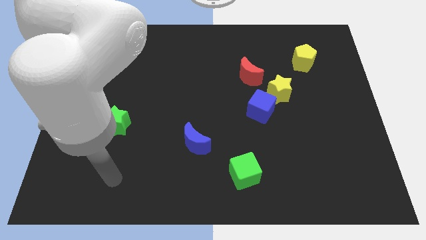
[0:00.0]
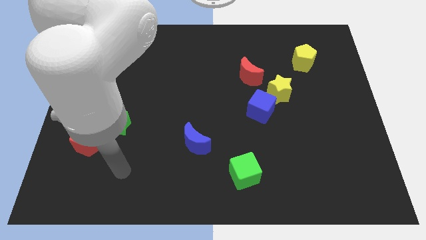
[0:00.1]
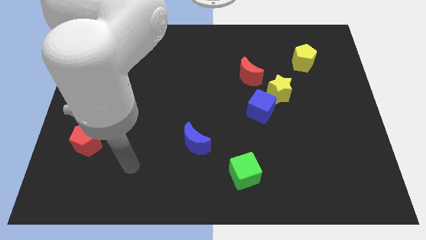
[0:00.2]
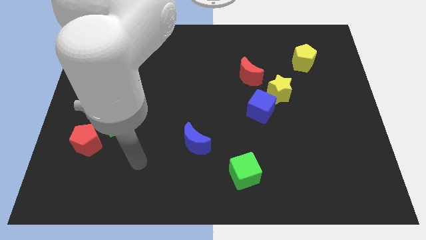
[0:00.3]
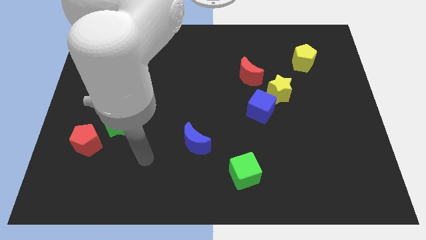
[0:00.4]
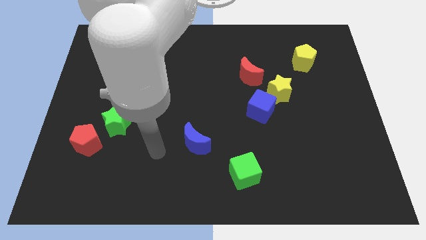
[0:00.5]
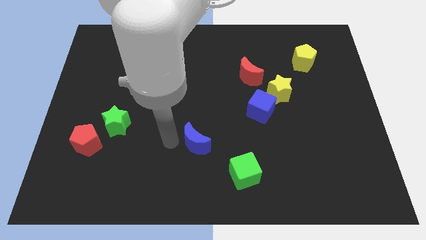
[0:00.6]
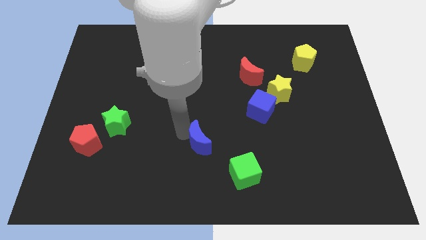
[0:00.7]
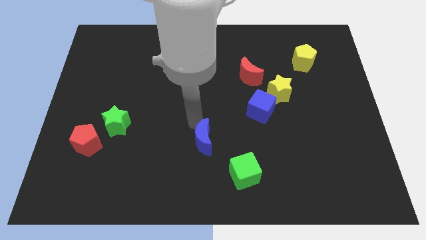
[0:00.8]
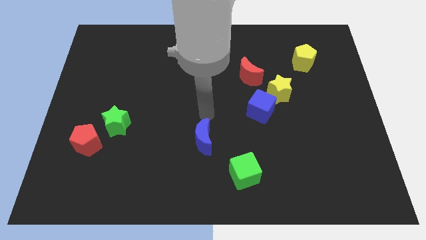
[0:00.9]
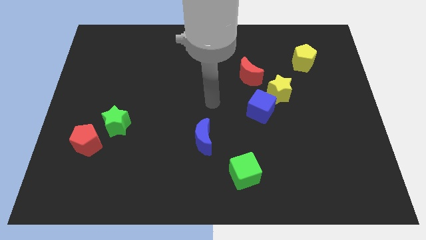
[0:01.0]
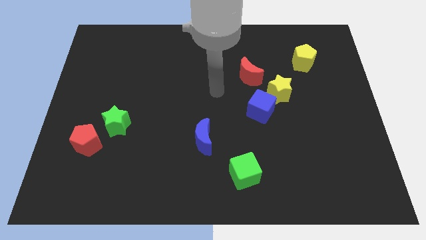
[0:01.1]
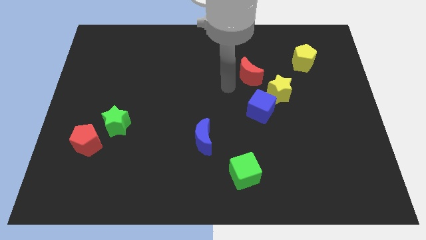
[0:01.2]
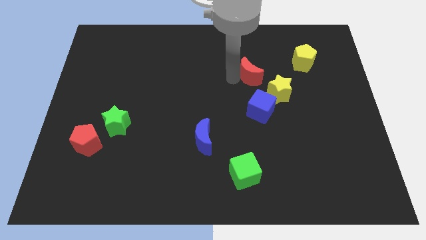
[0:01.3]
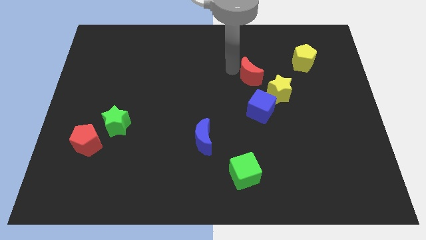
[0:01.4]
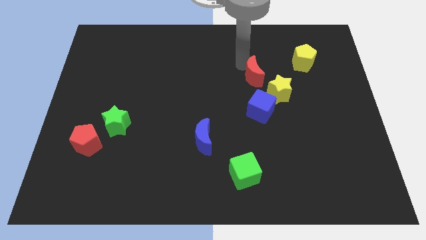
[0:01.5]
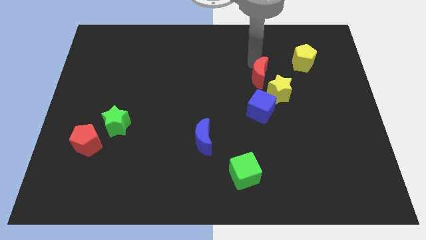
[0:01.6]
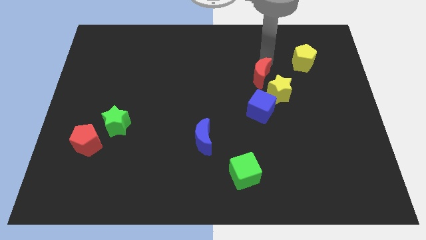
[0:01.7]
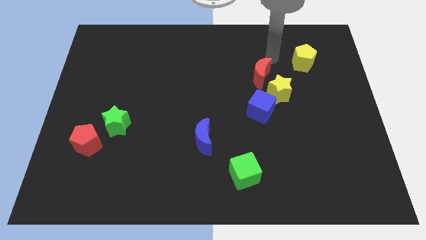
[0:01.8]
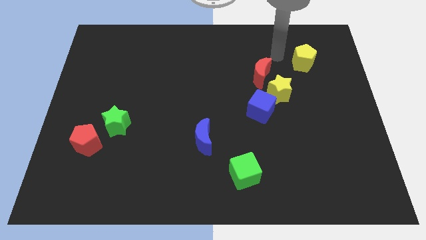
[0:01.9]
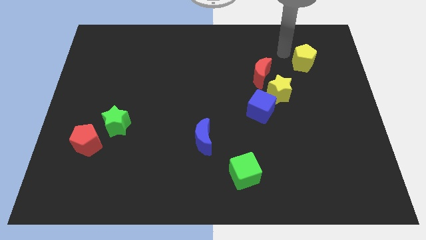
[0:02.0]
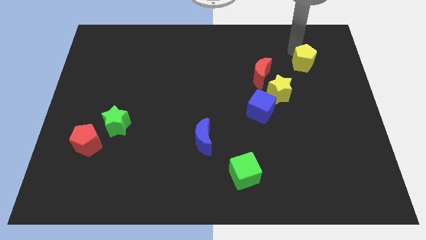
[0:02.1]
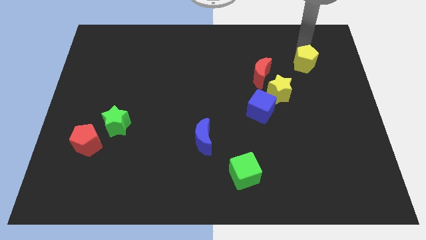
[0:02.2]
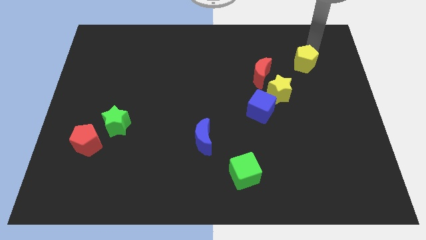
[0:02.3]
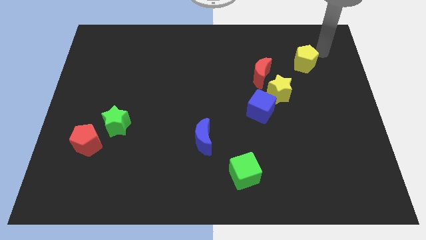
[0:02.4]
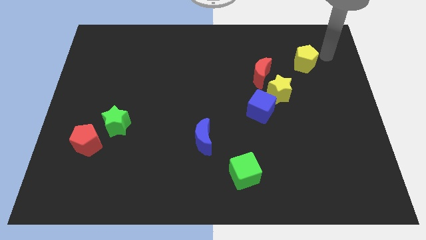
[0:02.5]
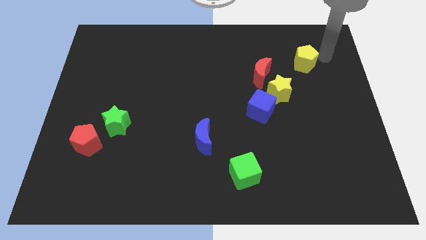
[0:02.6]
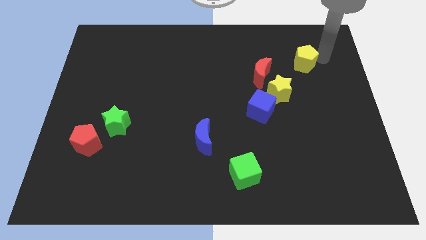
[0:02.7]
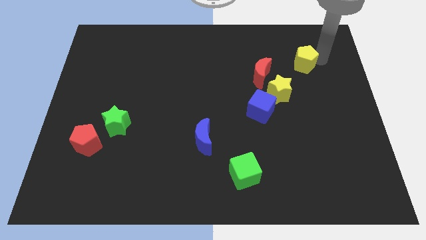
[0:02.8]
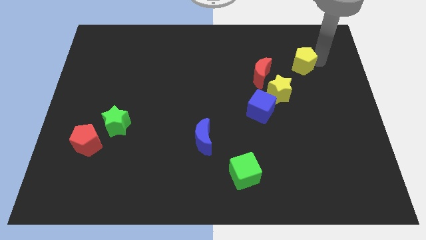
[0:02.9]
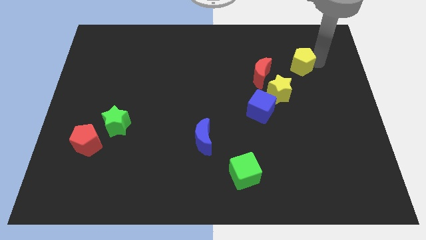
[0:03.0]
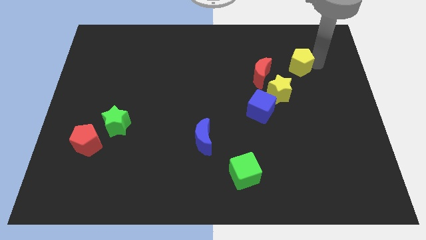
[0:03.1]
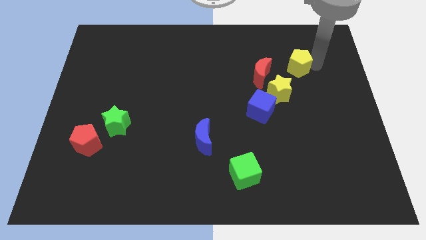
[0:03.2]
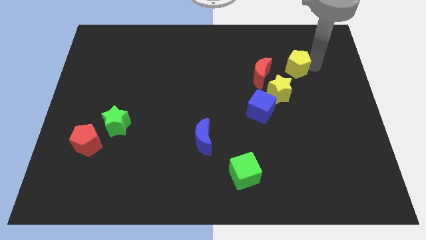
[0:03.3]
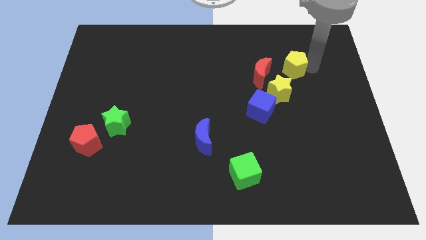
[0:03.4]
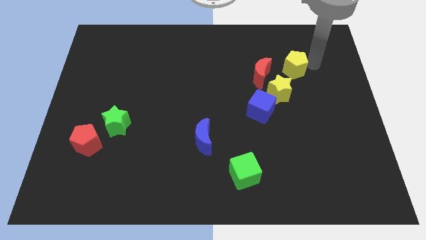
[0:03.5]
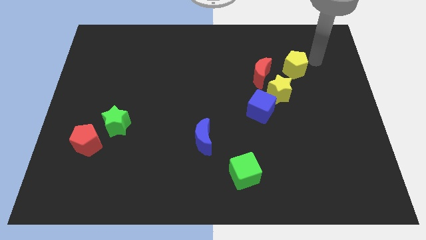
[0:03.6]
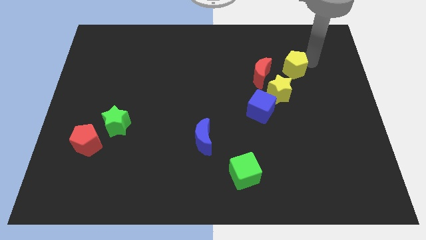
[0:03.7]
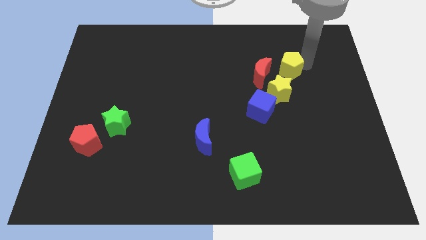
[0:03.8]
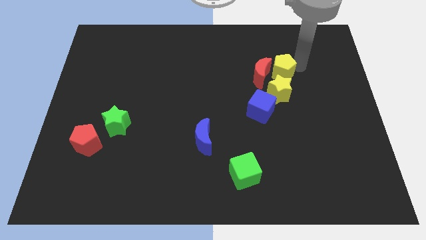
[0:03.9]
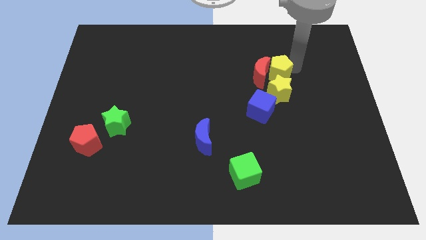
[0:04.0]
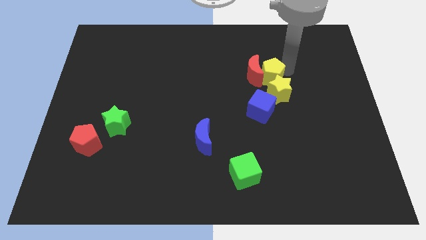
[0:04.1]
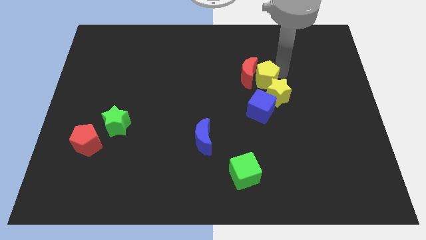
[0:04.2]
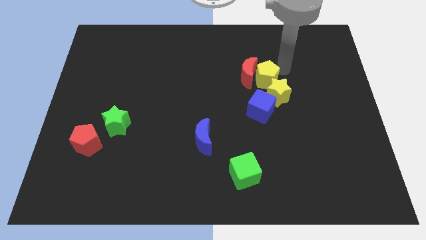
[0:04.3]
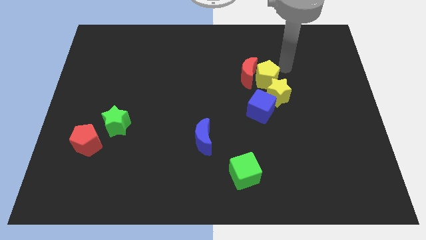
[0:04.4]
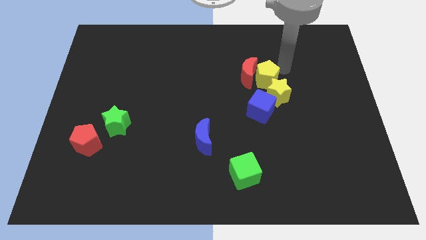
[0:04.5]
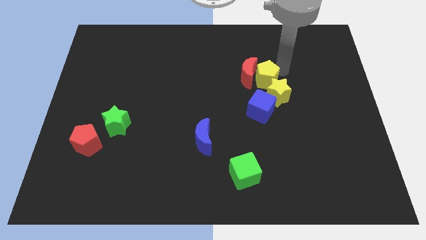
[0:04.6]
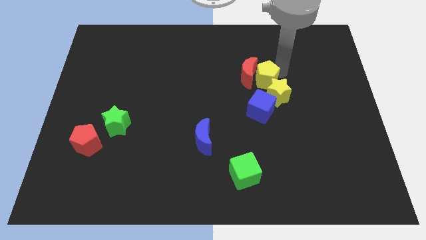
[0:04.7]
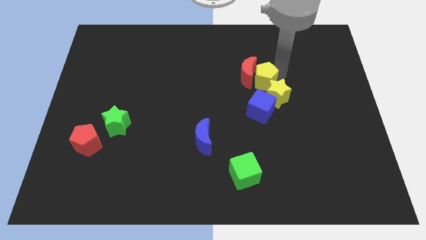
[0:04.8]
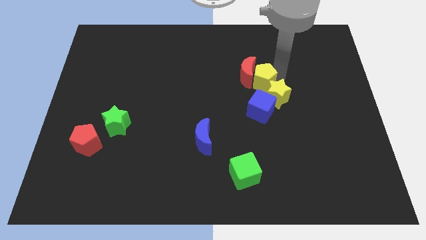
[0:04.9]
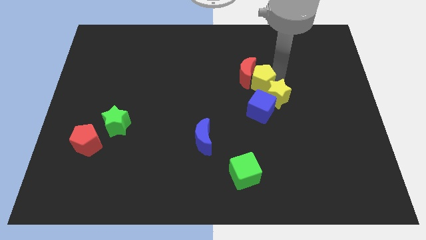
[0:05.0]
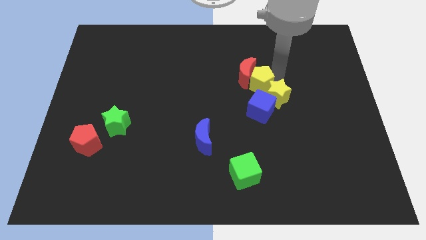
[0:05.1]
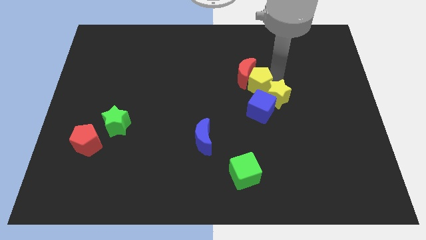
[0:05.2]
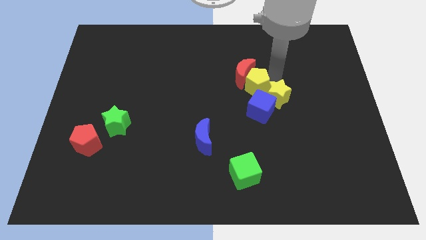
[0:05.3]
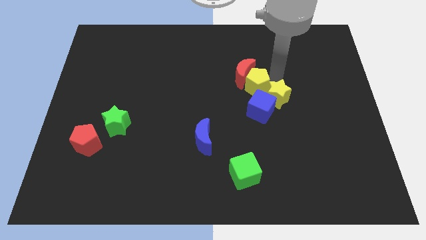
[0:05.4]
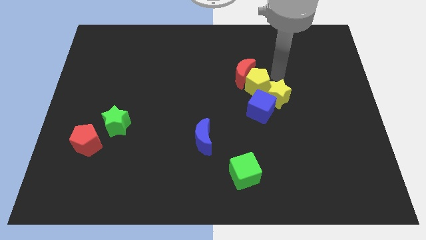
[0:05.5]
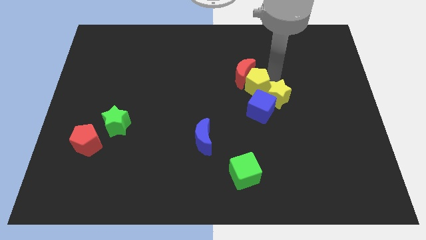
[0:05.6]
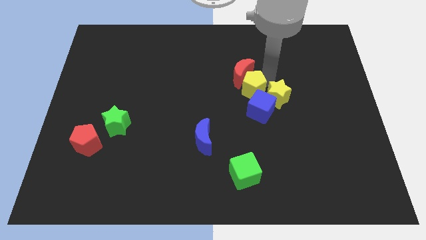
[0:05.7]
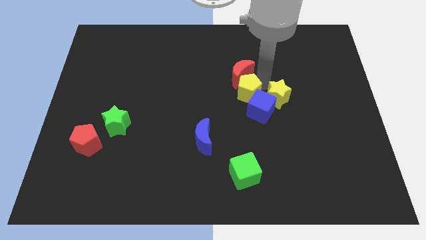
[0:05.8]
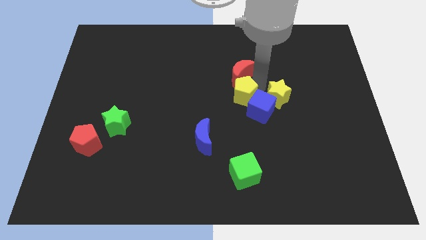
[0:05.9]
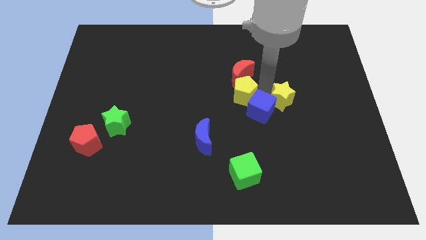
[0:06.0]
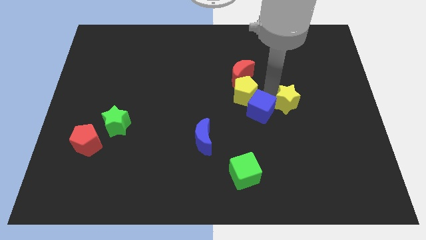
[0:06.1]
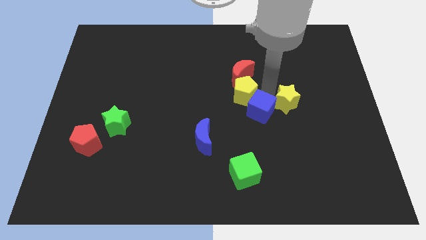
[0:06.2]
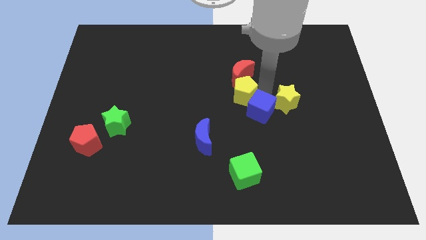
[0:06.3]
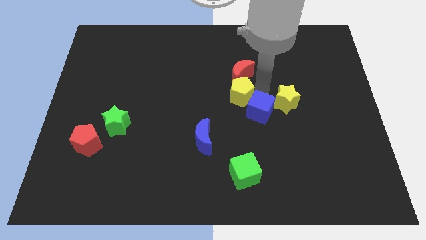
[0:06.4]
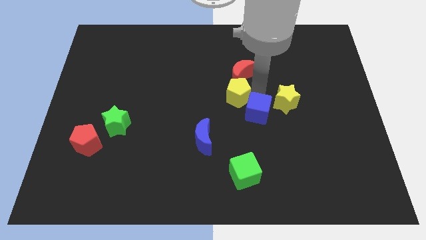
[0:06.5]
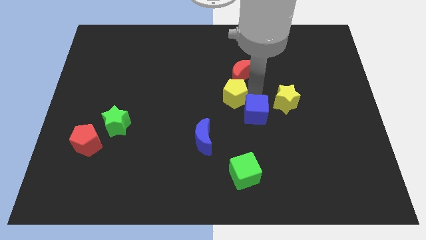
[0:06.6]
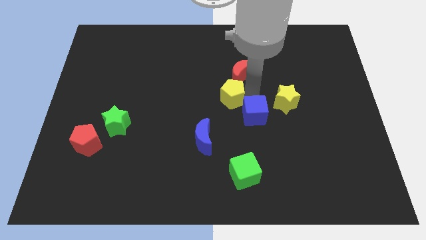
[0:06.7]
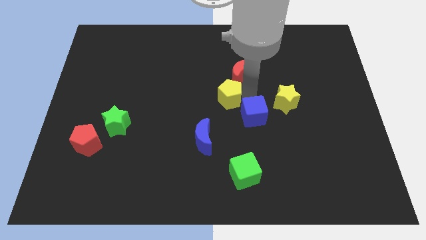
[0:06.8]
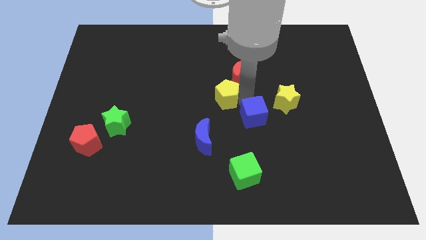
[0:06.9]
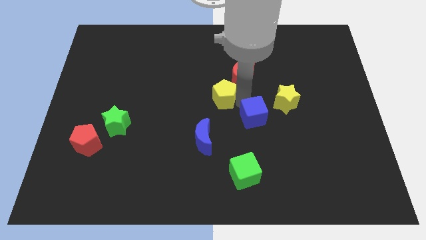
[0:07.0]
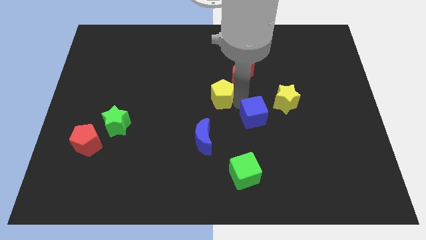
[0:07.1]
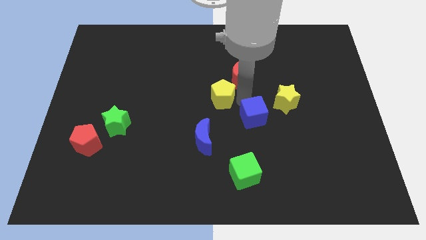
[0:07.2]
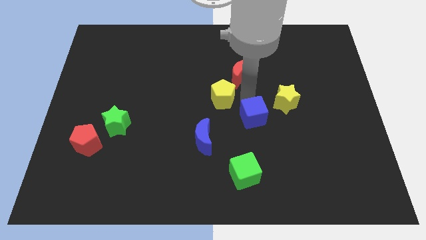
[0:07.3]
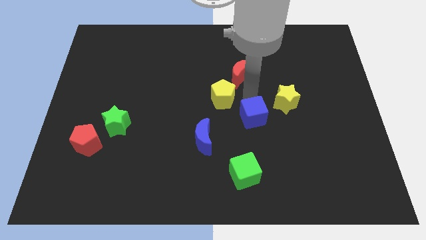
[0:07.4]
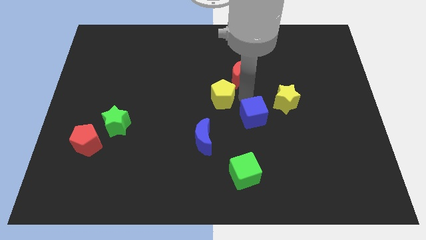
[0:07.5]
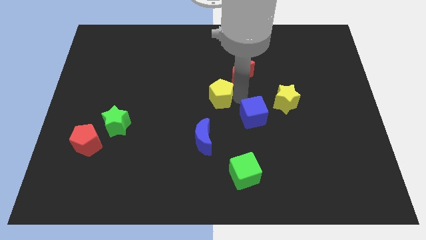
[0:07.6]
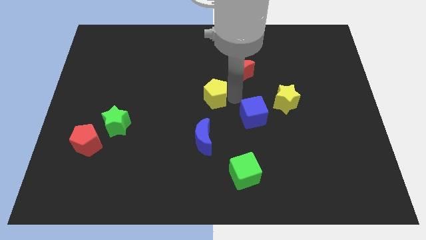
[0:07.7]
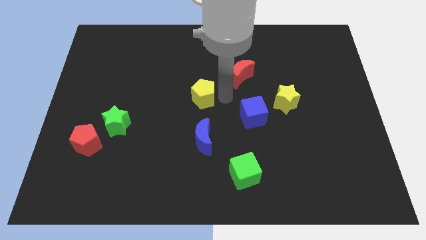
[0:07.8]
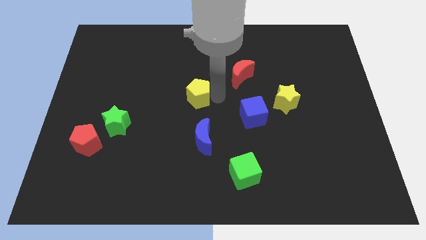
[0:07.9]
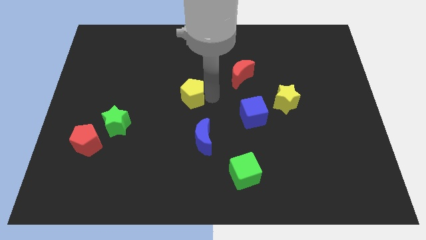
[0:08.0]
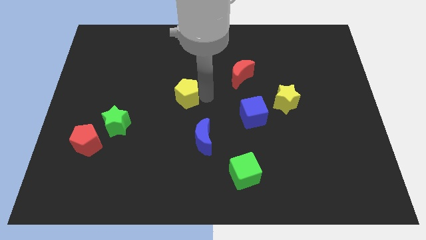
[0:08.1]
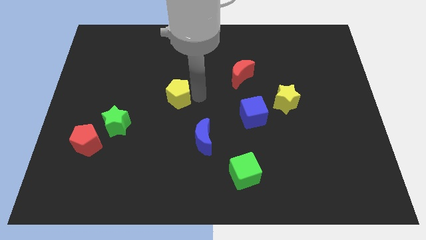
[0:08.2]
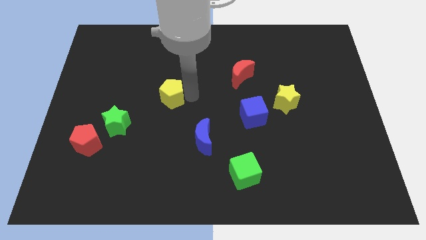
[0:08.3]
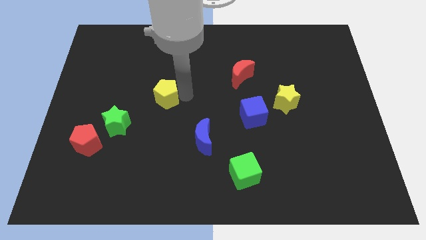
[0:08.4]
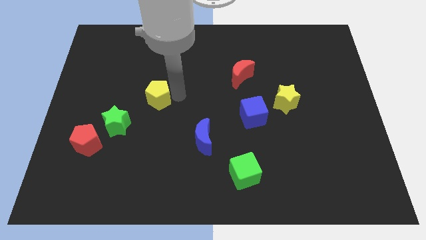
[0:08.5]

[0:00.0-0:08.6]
move the yellow pentagon to the top right of the green star
